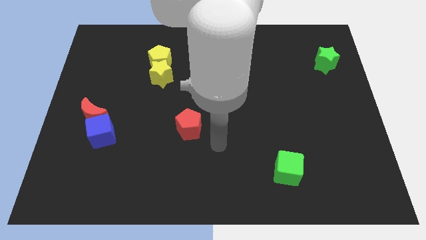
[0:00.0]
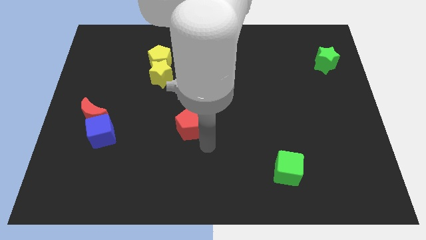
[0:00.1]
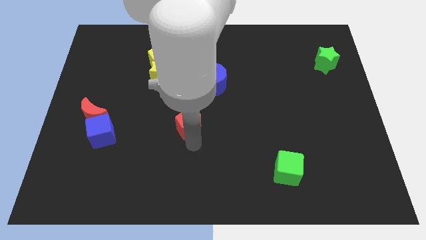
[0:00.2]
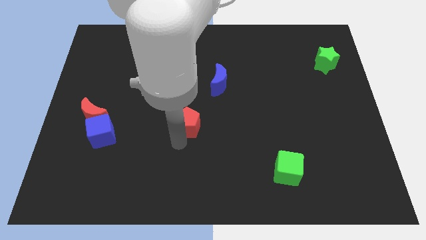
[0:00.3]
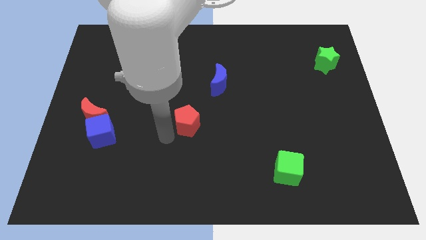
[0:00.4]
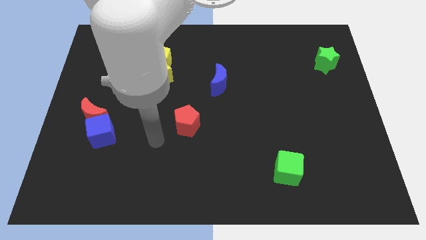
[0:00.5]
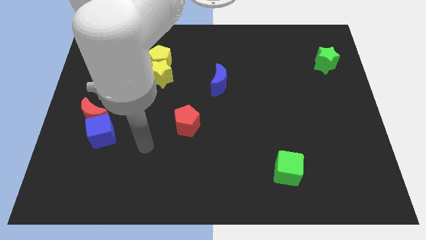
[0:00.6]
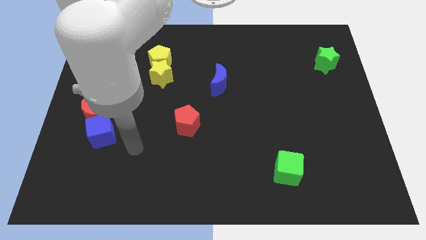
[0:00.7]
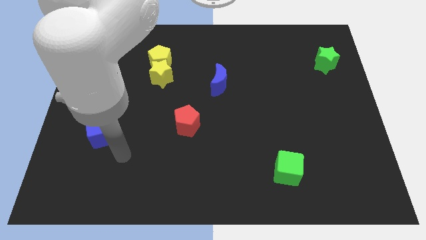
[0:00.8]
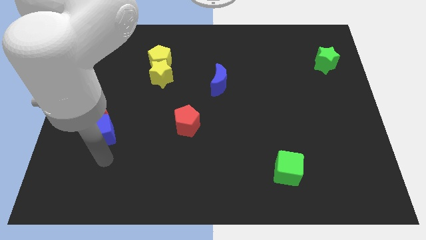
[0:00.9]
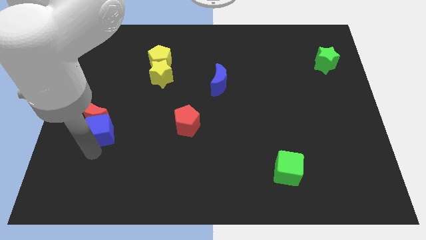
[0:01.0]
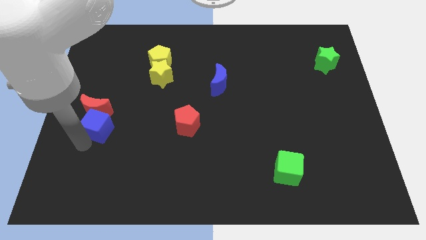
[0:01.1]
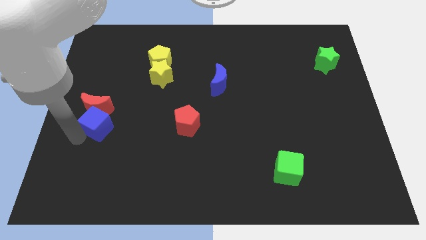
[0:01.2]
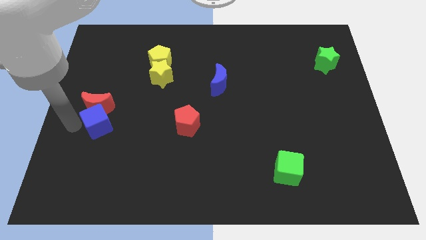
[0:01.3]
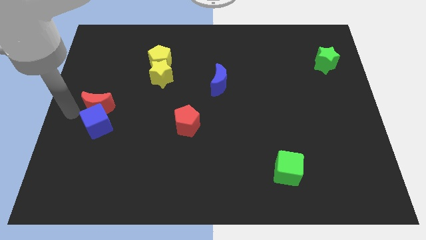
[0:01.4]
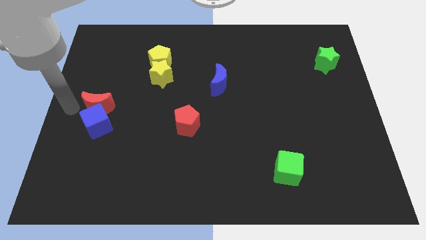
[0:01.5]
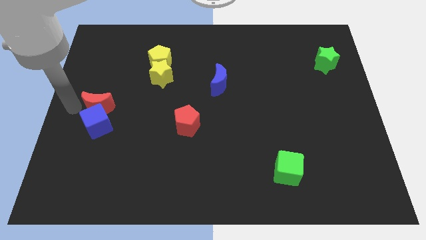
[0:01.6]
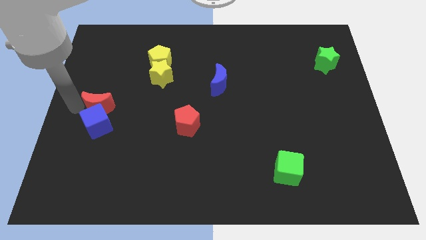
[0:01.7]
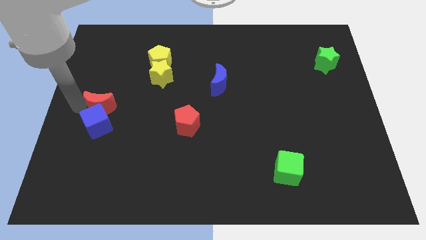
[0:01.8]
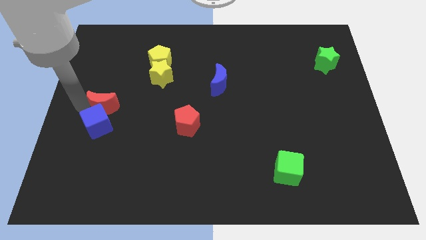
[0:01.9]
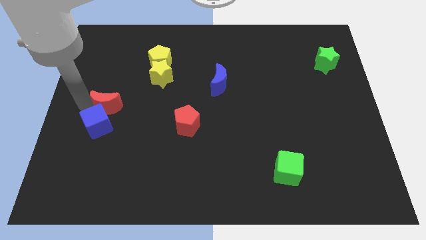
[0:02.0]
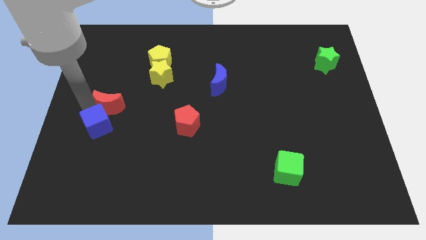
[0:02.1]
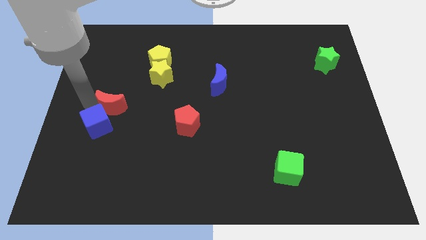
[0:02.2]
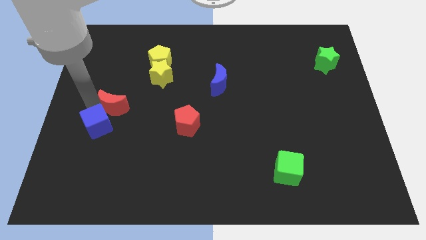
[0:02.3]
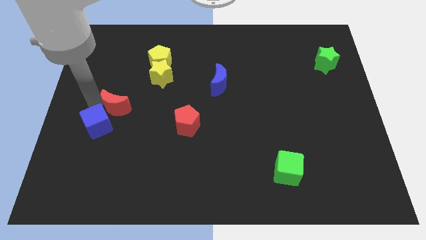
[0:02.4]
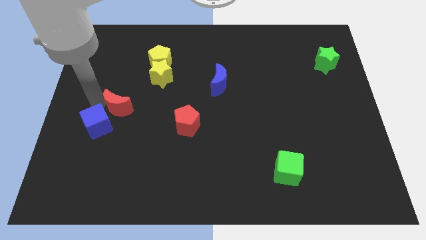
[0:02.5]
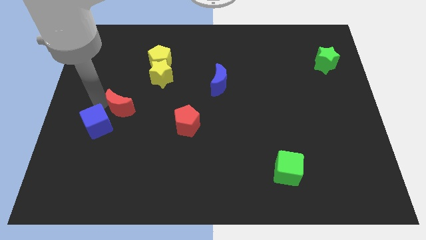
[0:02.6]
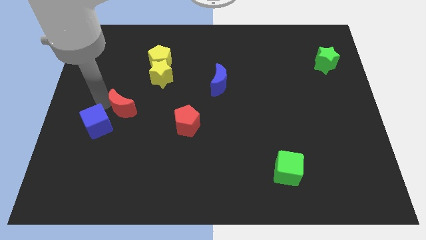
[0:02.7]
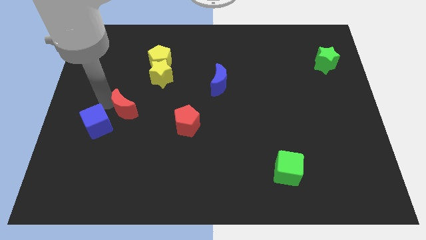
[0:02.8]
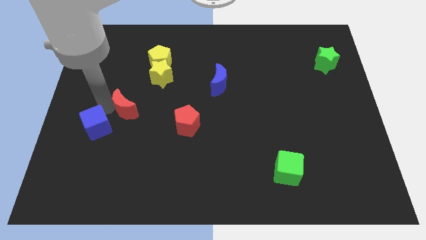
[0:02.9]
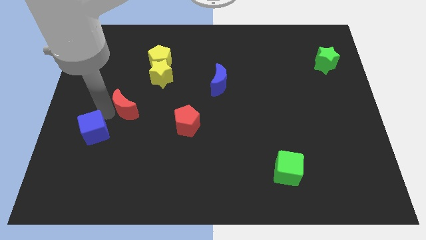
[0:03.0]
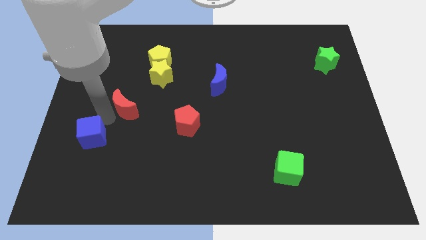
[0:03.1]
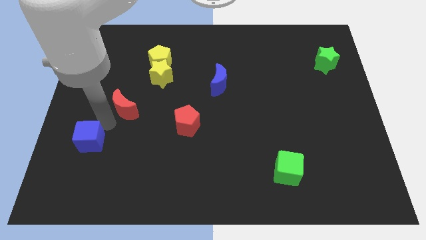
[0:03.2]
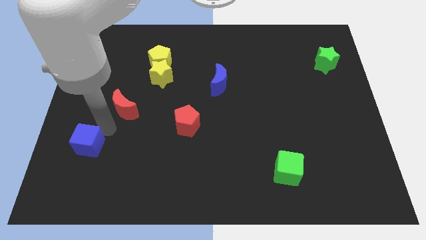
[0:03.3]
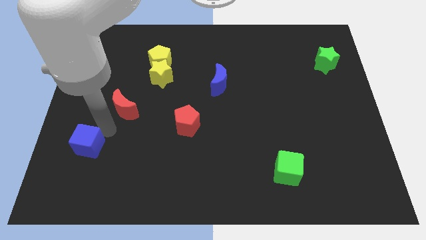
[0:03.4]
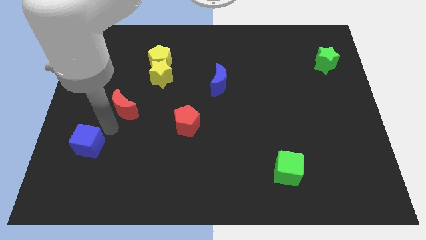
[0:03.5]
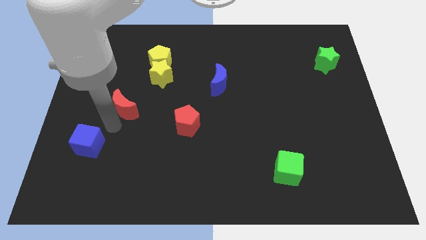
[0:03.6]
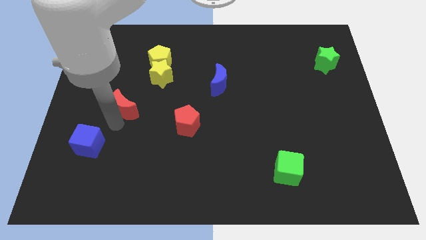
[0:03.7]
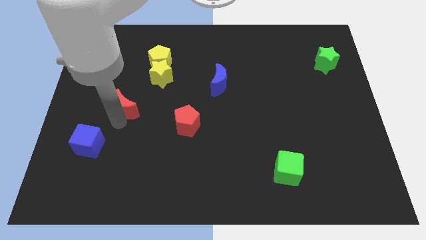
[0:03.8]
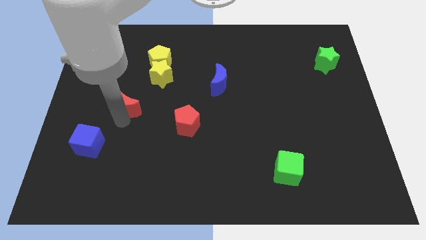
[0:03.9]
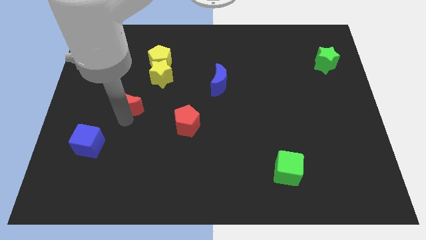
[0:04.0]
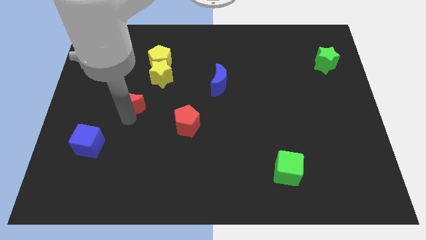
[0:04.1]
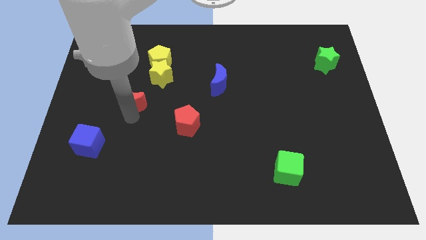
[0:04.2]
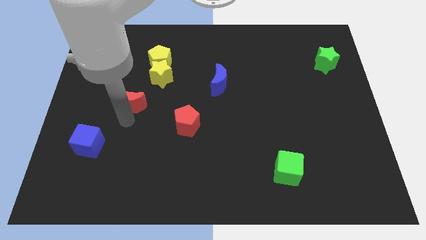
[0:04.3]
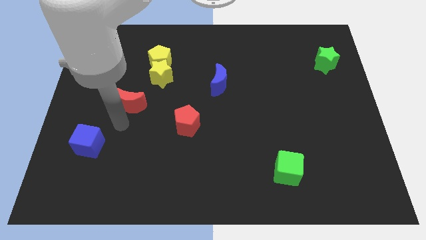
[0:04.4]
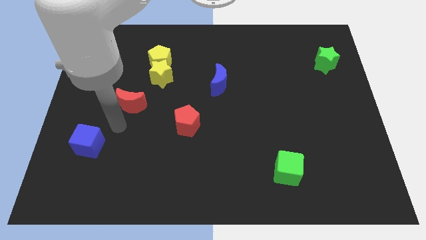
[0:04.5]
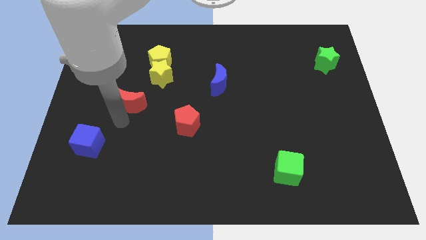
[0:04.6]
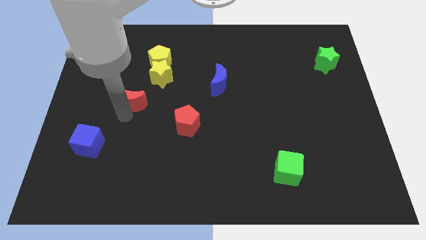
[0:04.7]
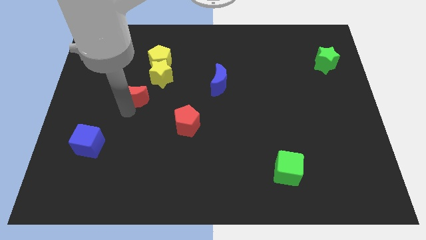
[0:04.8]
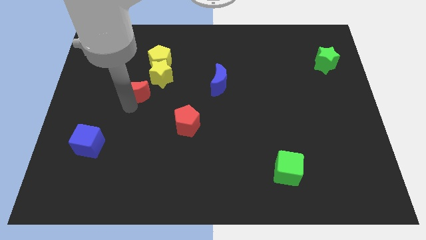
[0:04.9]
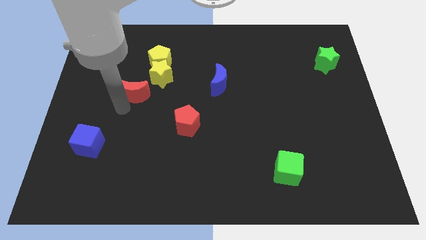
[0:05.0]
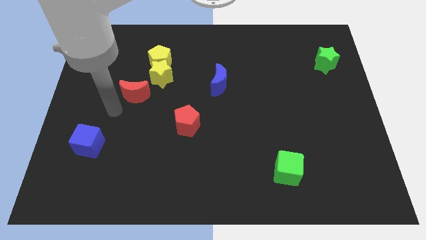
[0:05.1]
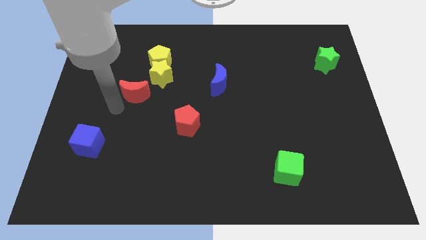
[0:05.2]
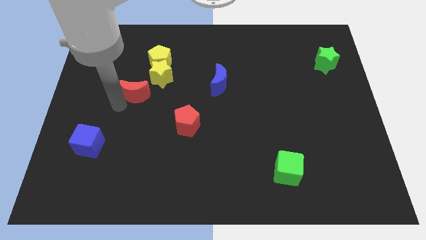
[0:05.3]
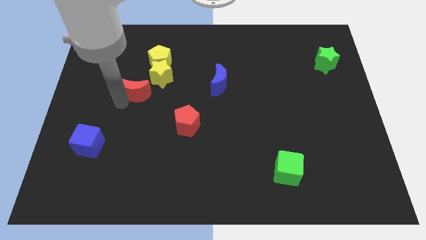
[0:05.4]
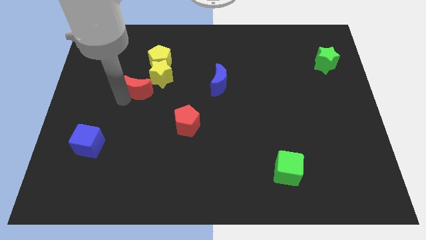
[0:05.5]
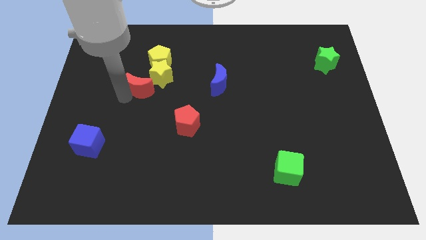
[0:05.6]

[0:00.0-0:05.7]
push the red moon next to the yellow star

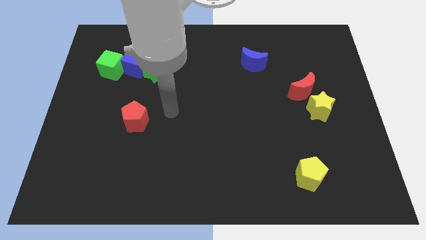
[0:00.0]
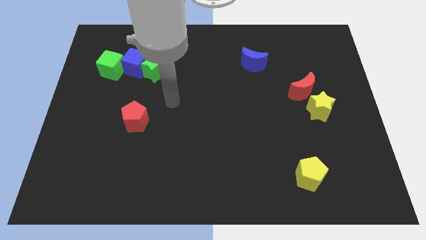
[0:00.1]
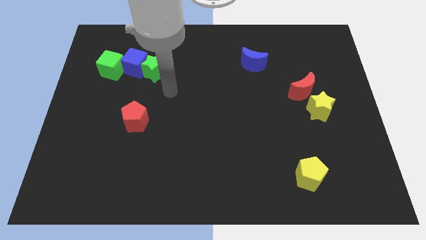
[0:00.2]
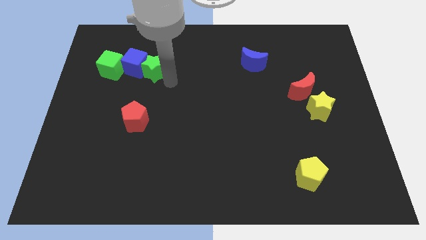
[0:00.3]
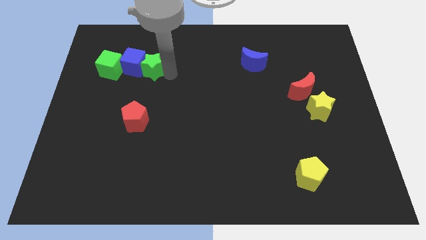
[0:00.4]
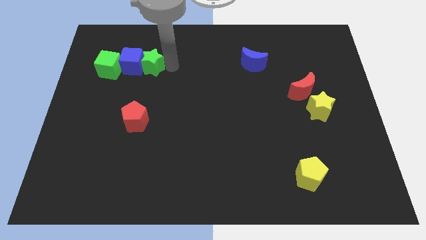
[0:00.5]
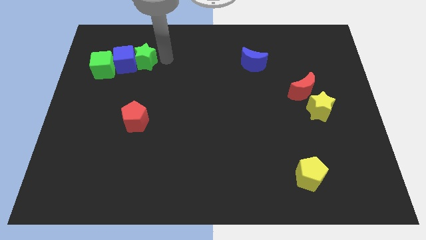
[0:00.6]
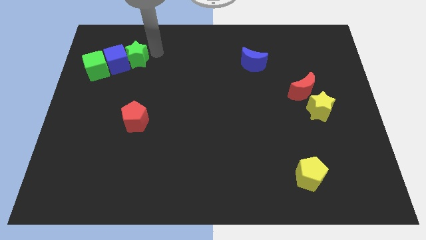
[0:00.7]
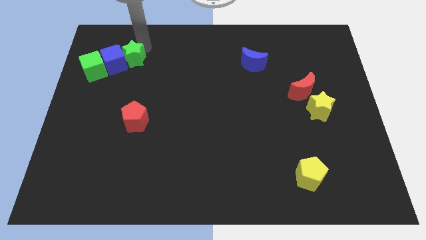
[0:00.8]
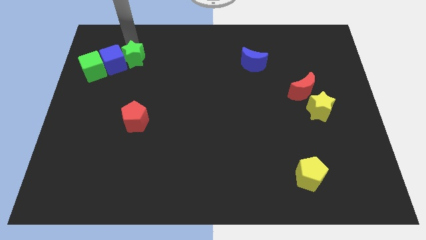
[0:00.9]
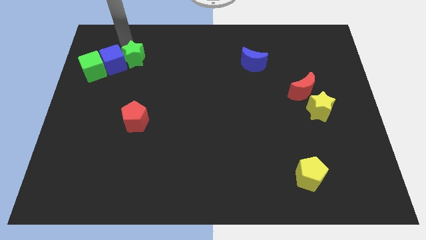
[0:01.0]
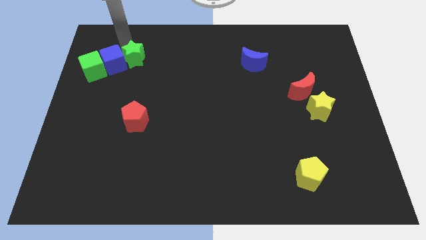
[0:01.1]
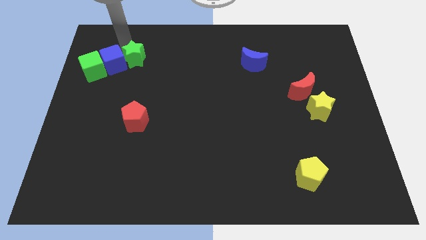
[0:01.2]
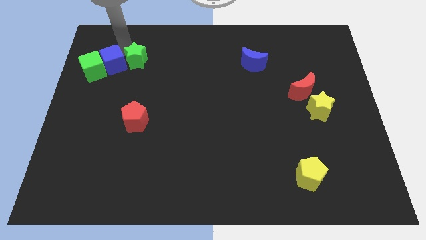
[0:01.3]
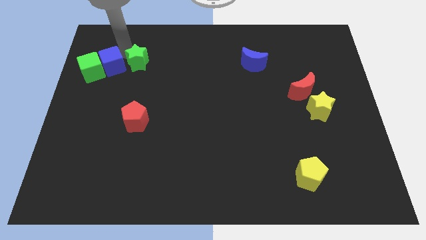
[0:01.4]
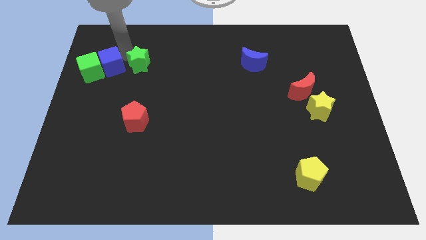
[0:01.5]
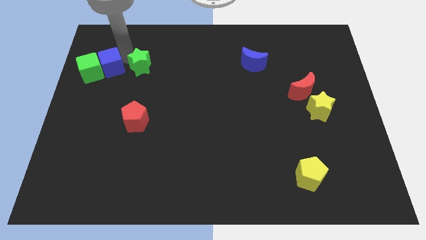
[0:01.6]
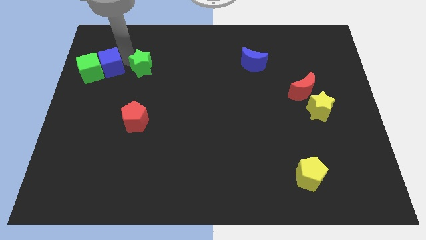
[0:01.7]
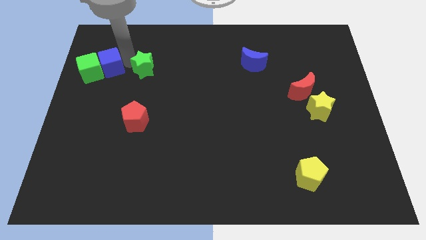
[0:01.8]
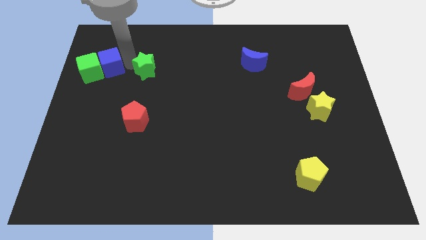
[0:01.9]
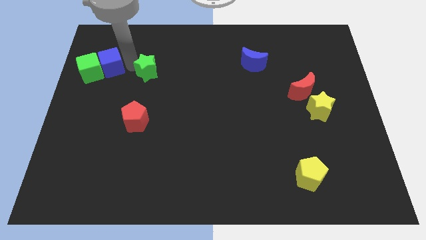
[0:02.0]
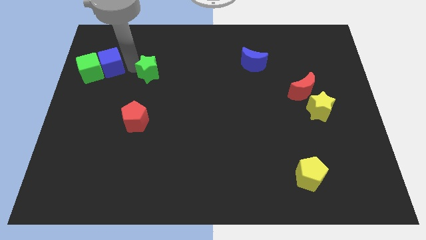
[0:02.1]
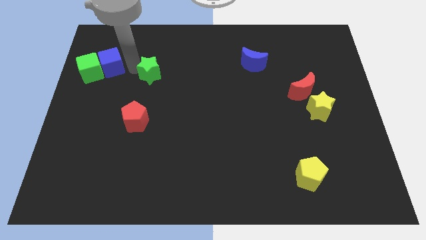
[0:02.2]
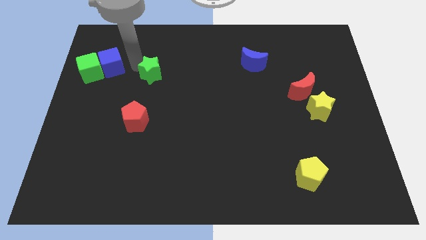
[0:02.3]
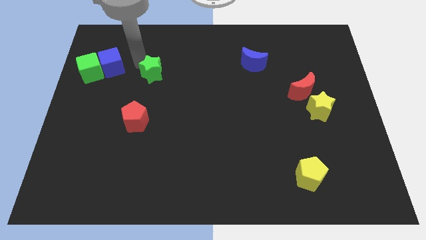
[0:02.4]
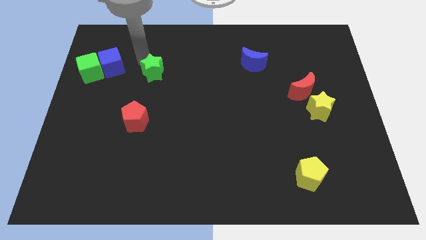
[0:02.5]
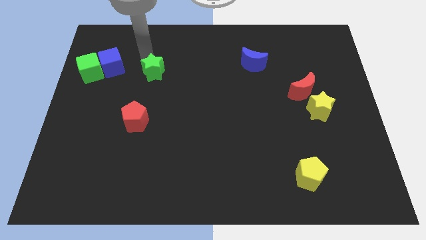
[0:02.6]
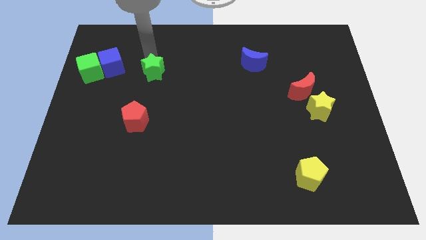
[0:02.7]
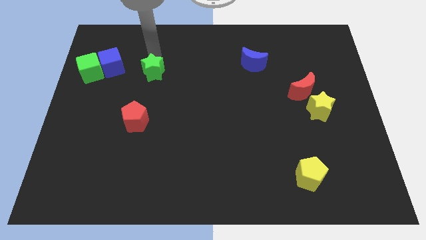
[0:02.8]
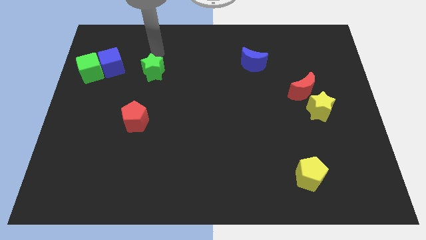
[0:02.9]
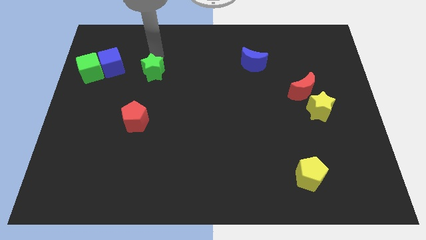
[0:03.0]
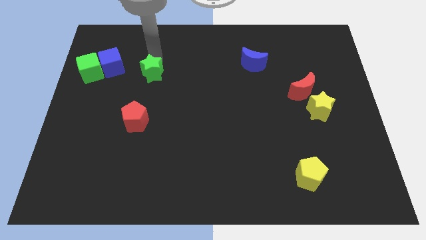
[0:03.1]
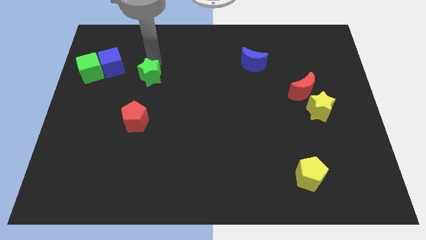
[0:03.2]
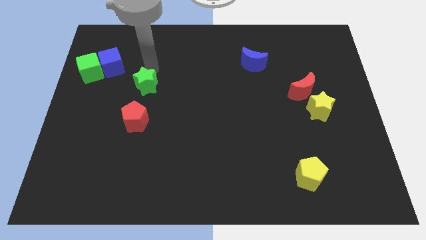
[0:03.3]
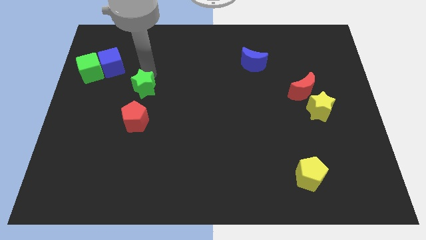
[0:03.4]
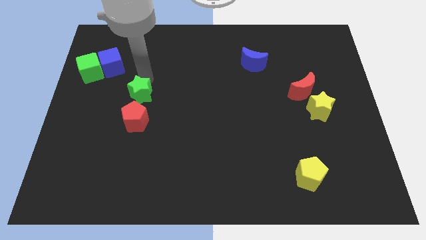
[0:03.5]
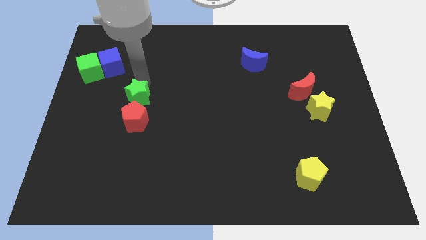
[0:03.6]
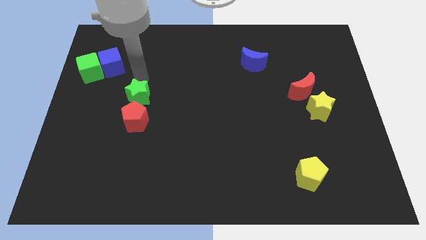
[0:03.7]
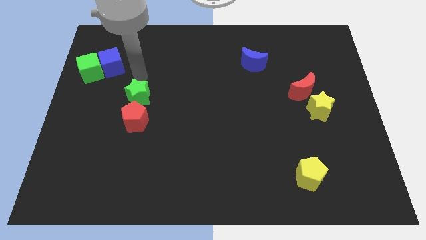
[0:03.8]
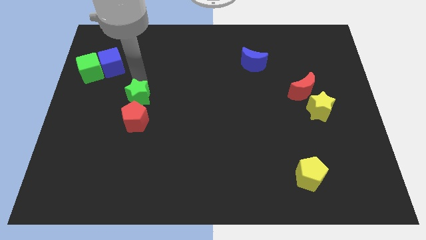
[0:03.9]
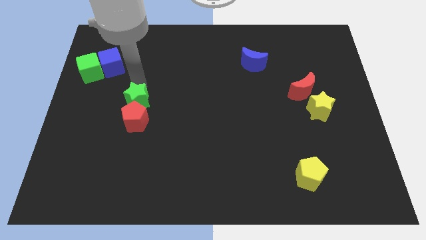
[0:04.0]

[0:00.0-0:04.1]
put the green star close to the red pentagon
